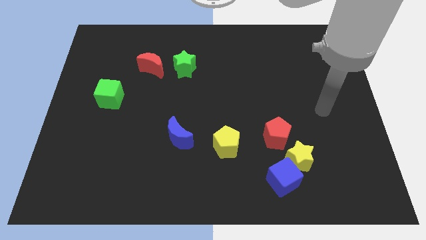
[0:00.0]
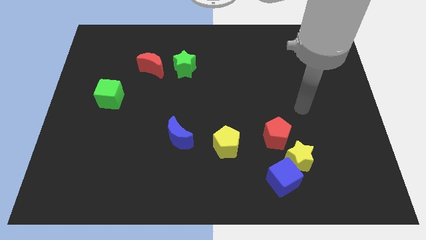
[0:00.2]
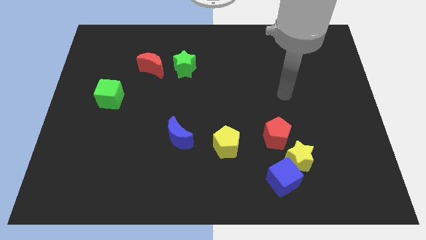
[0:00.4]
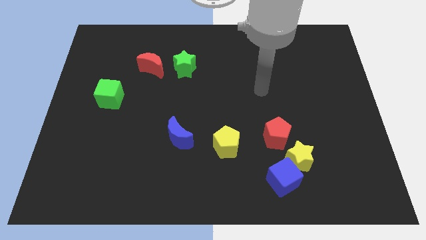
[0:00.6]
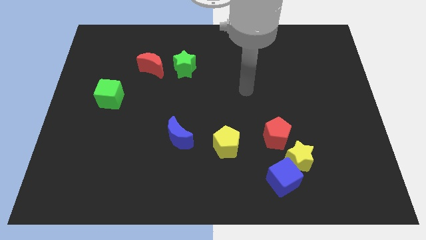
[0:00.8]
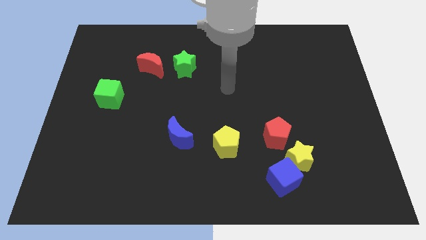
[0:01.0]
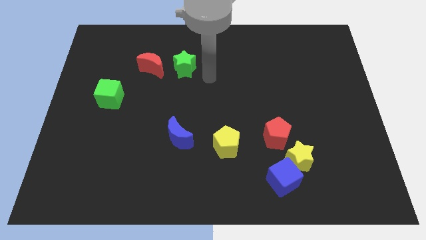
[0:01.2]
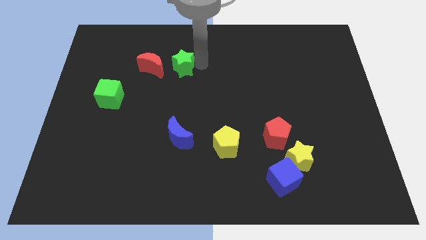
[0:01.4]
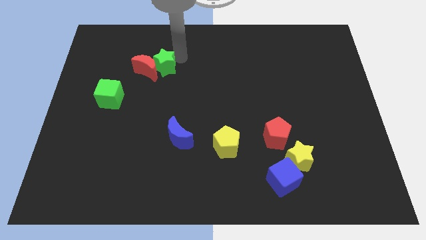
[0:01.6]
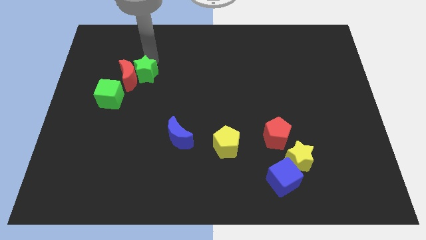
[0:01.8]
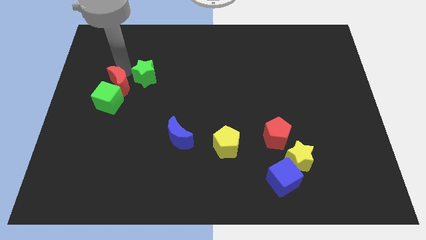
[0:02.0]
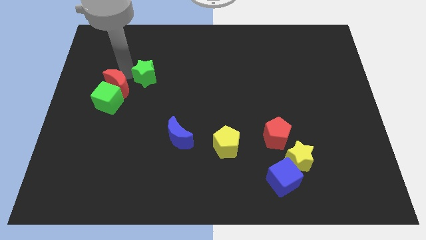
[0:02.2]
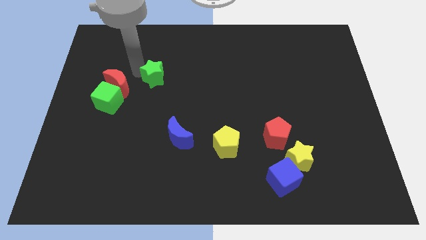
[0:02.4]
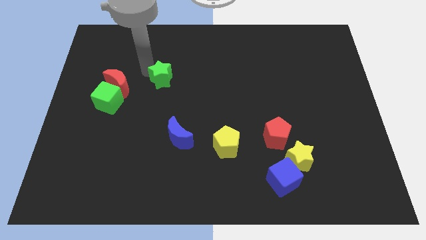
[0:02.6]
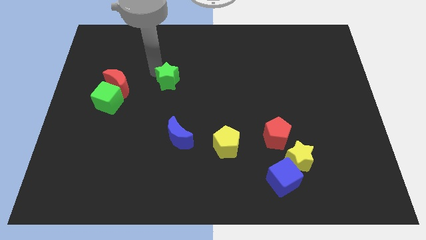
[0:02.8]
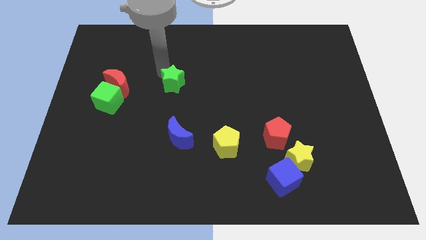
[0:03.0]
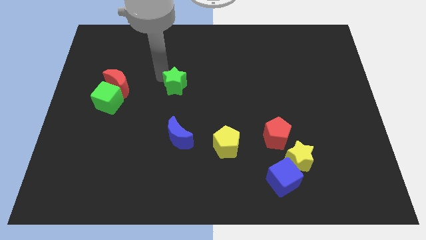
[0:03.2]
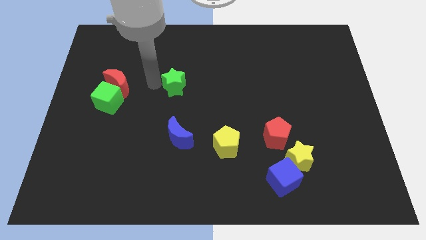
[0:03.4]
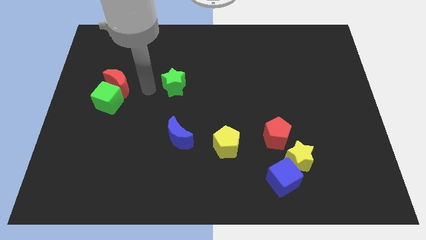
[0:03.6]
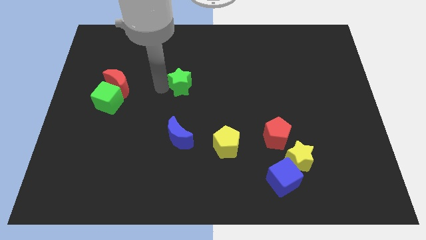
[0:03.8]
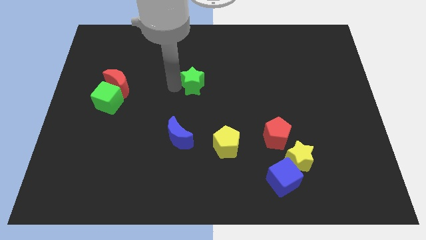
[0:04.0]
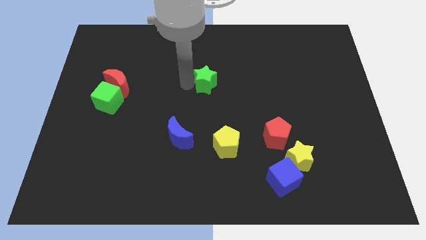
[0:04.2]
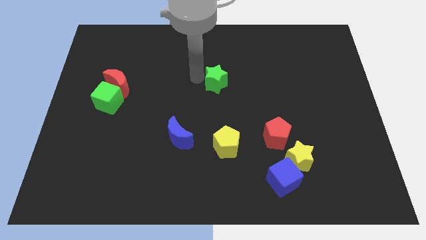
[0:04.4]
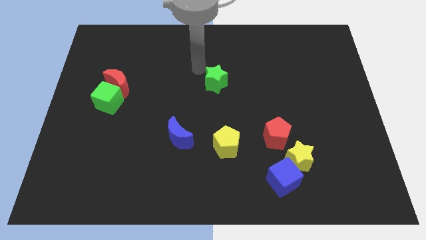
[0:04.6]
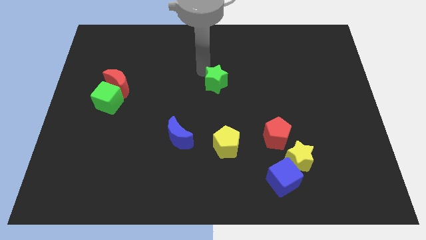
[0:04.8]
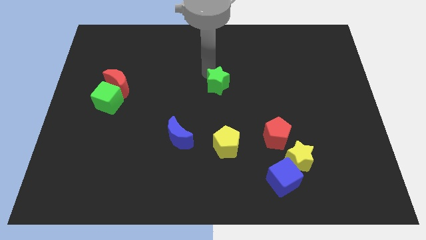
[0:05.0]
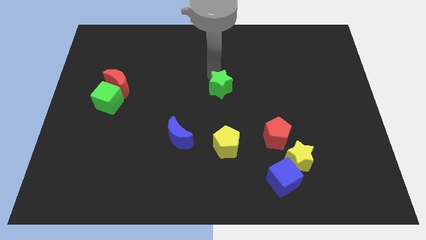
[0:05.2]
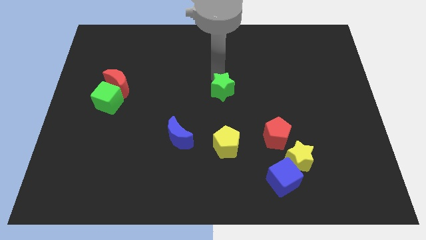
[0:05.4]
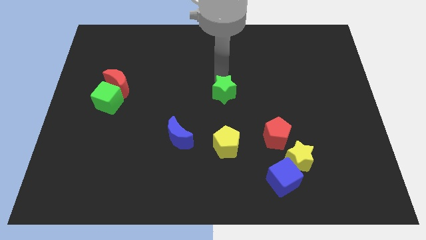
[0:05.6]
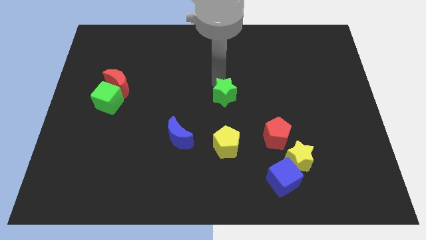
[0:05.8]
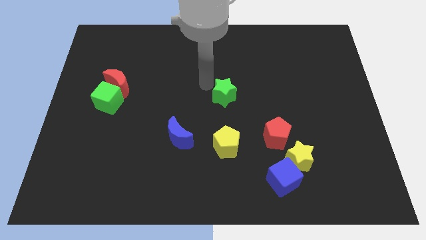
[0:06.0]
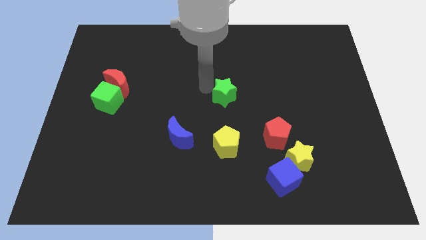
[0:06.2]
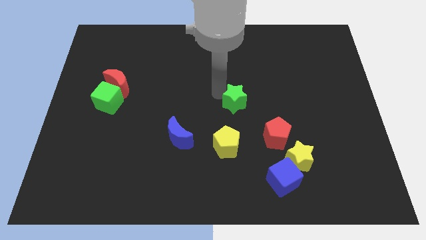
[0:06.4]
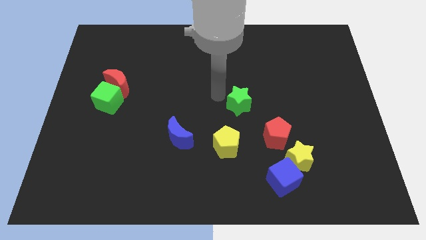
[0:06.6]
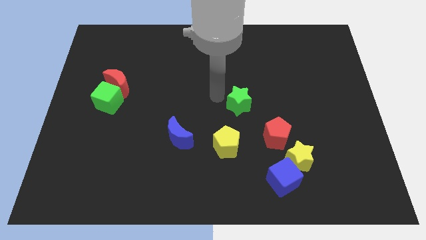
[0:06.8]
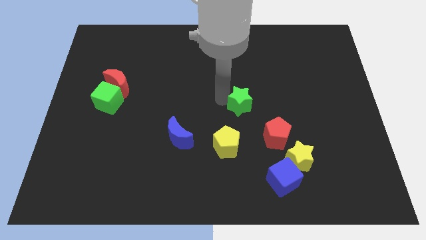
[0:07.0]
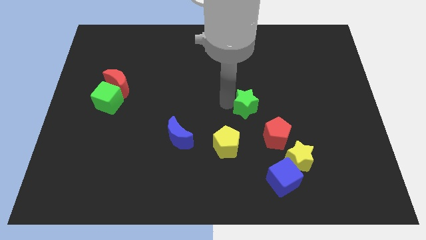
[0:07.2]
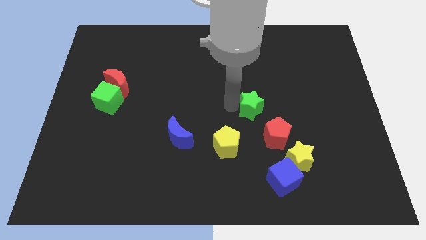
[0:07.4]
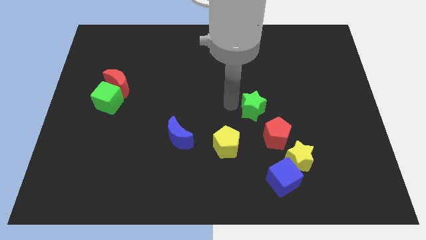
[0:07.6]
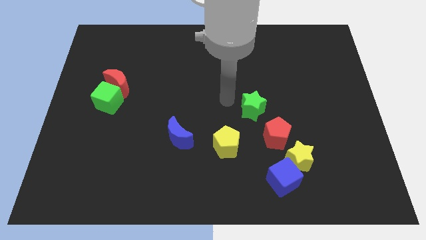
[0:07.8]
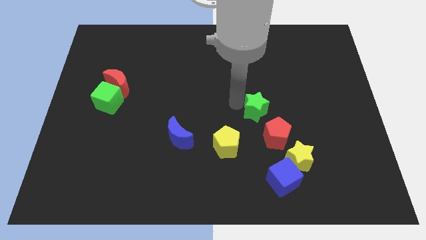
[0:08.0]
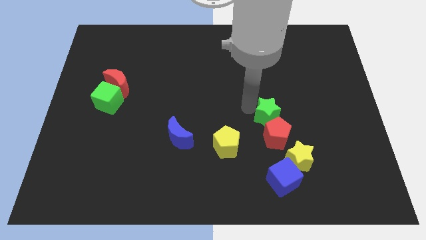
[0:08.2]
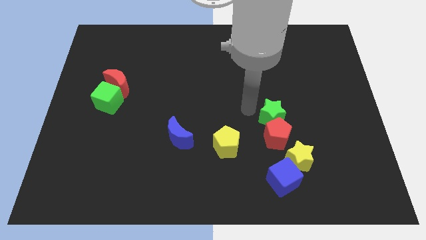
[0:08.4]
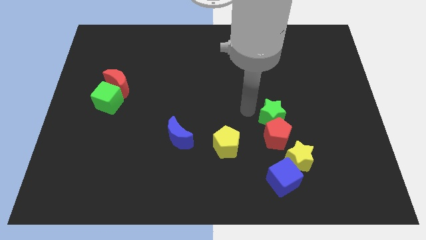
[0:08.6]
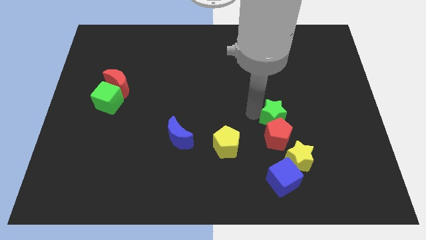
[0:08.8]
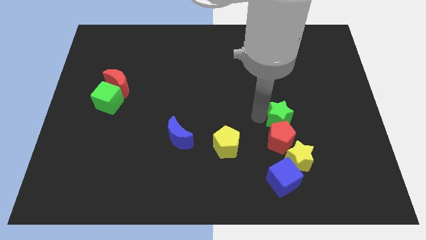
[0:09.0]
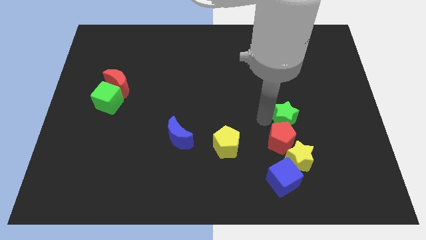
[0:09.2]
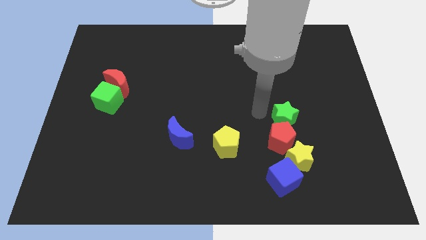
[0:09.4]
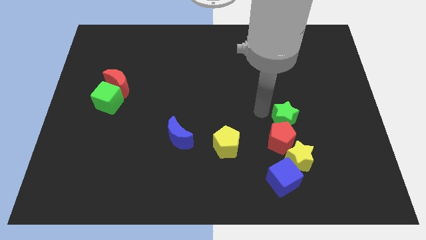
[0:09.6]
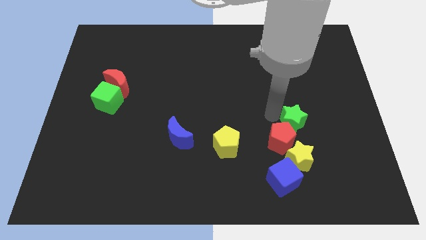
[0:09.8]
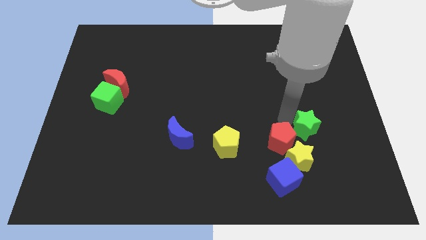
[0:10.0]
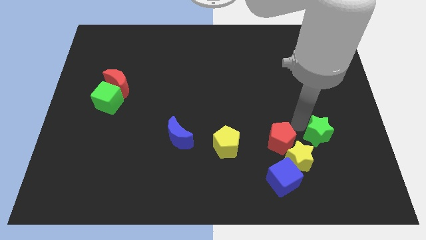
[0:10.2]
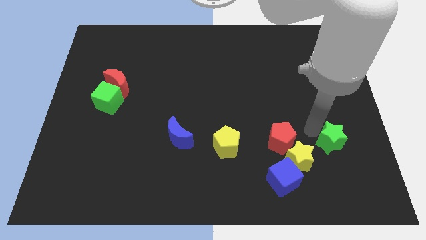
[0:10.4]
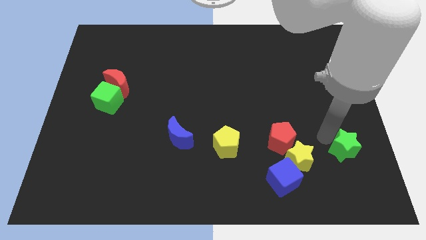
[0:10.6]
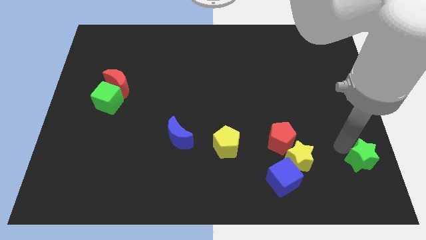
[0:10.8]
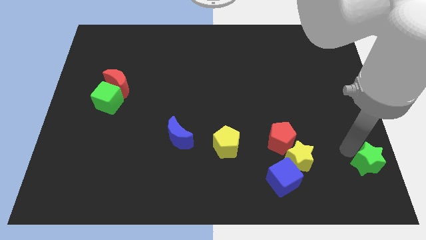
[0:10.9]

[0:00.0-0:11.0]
push the green star to the bottom right
